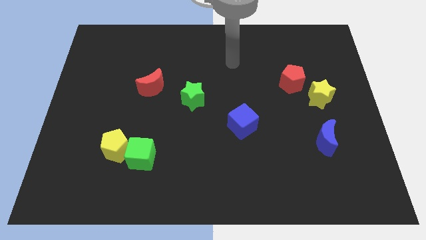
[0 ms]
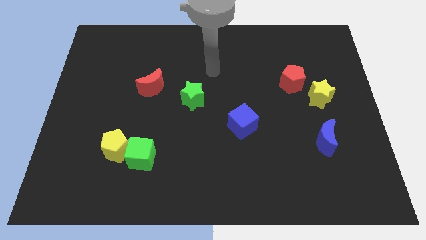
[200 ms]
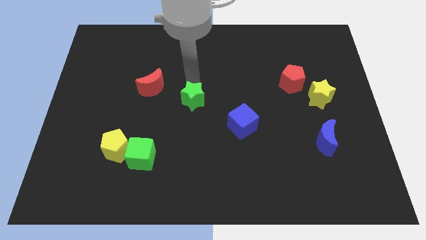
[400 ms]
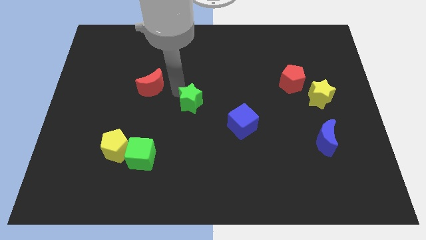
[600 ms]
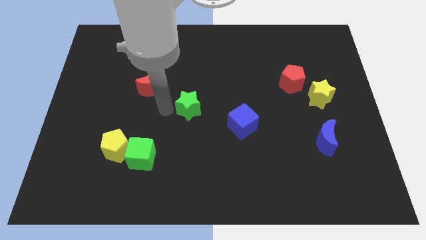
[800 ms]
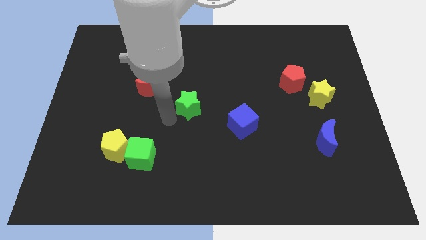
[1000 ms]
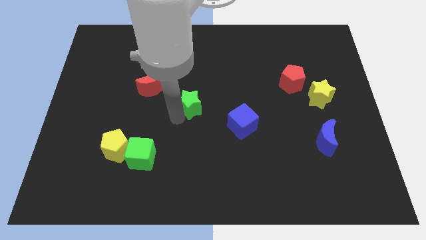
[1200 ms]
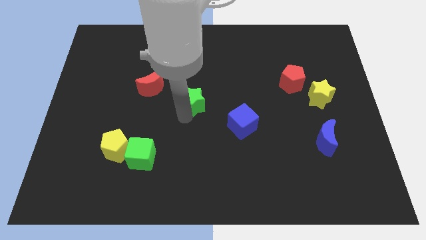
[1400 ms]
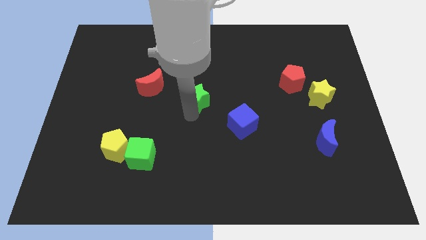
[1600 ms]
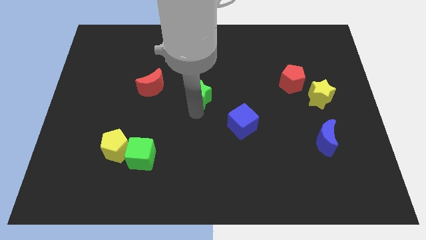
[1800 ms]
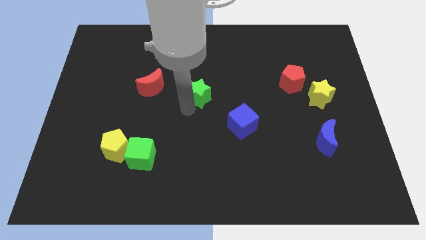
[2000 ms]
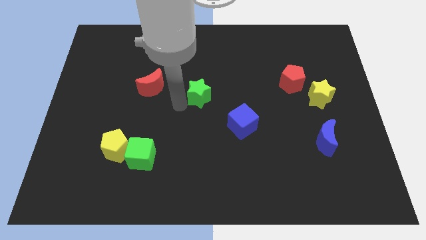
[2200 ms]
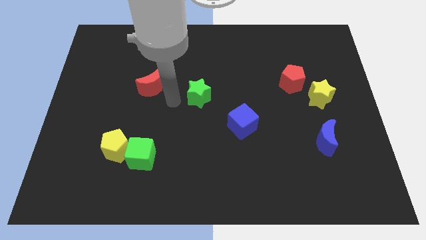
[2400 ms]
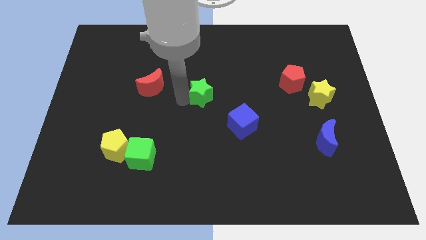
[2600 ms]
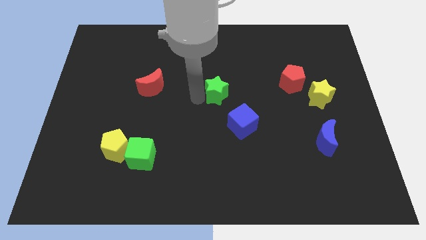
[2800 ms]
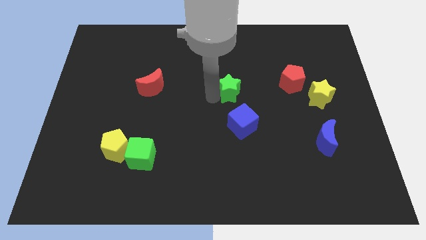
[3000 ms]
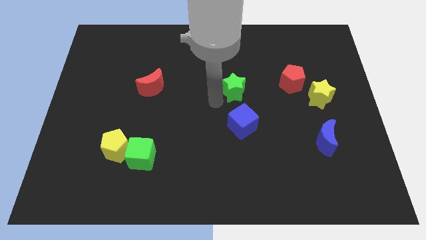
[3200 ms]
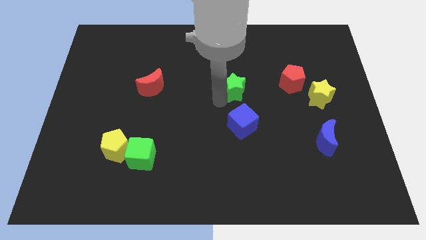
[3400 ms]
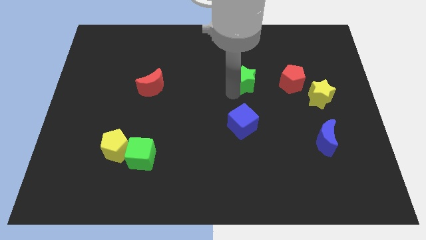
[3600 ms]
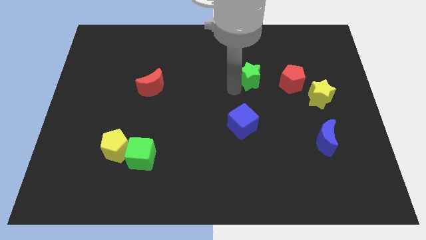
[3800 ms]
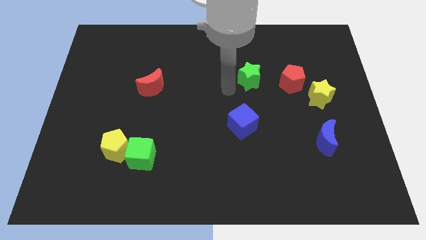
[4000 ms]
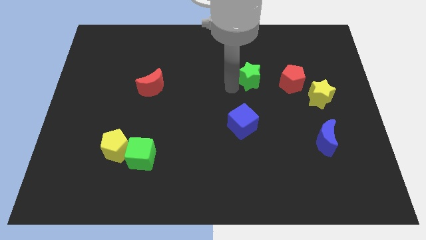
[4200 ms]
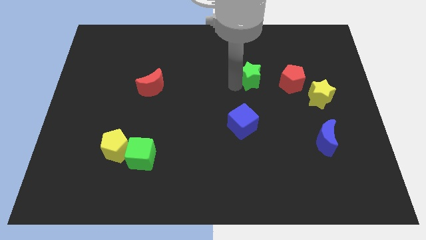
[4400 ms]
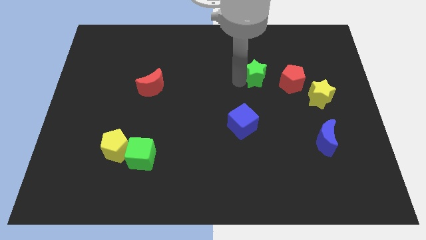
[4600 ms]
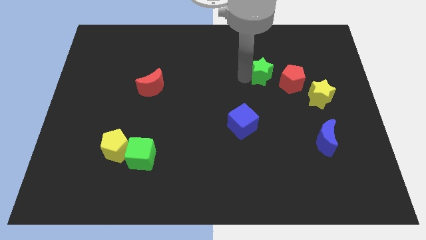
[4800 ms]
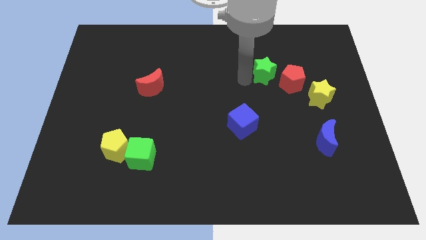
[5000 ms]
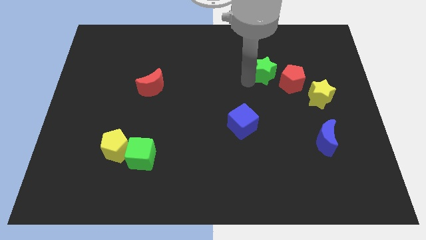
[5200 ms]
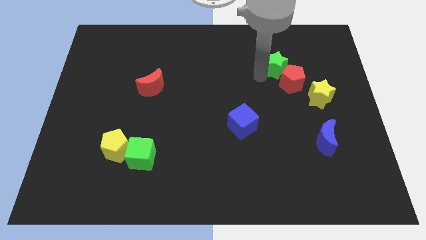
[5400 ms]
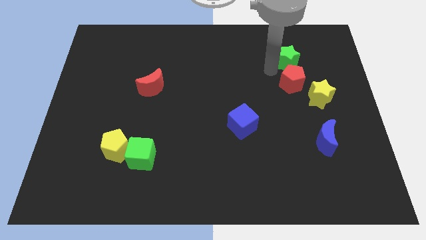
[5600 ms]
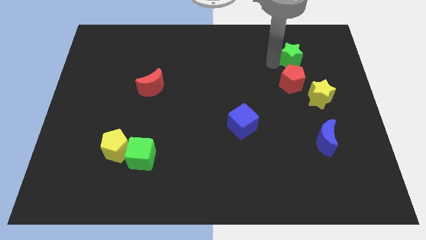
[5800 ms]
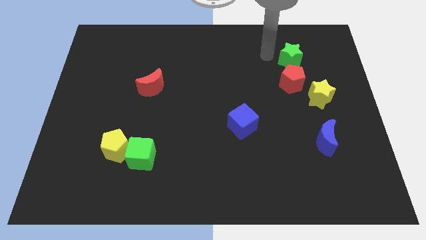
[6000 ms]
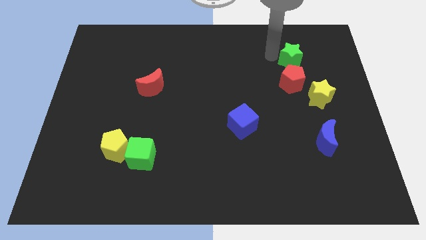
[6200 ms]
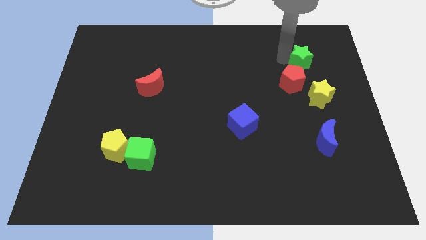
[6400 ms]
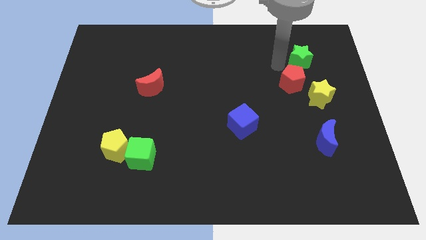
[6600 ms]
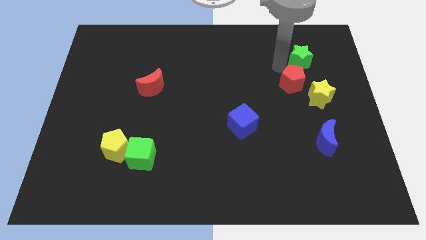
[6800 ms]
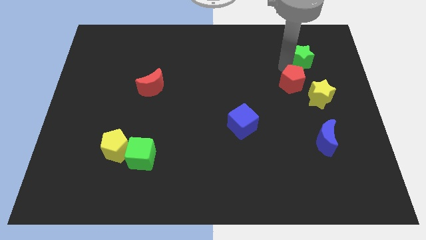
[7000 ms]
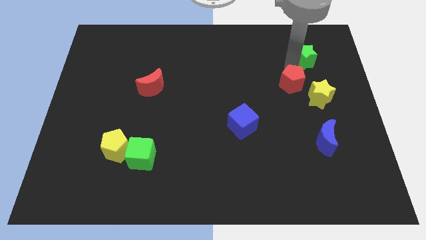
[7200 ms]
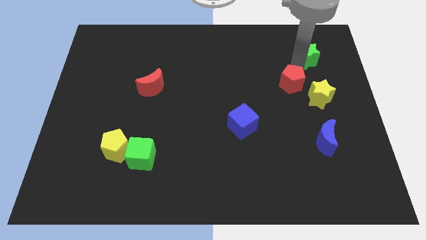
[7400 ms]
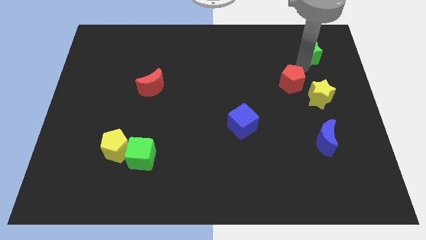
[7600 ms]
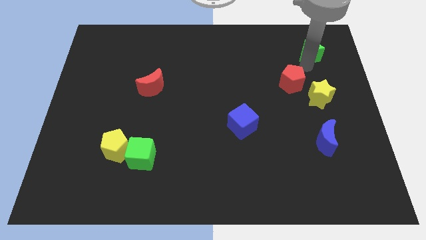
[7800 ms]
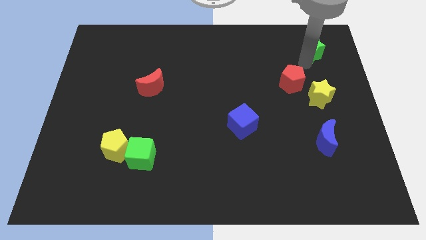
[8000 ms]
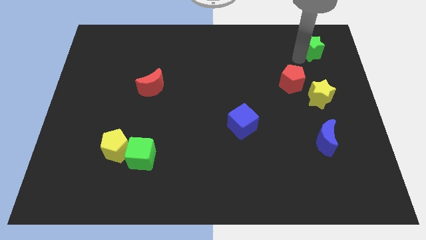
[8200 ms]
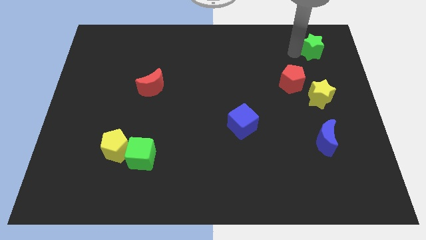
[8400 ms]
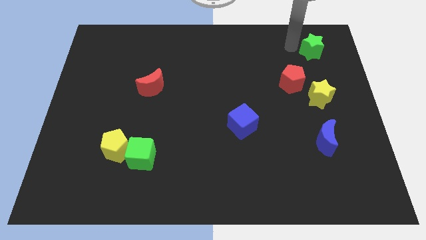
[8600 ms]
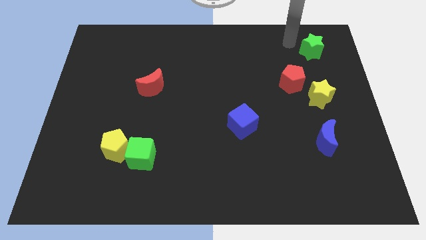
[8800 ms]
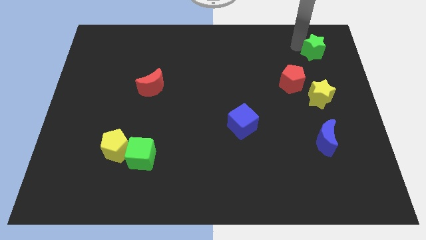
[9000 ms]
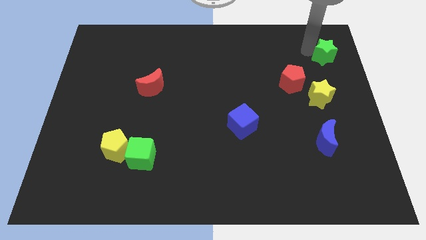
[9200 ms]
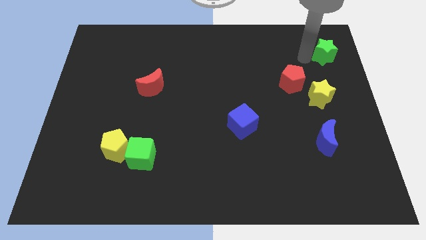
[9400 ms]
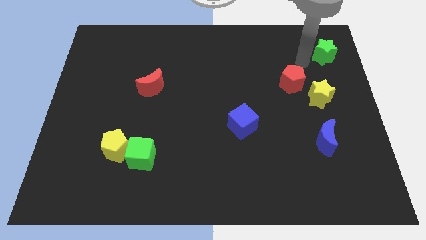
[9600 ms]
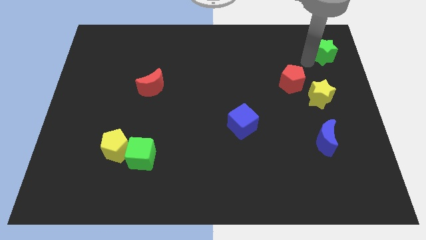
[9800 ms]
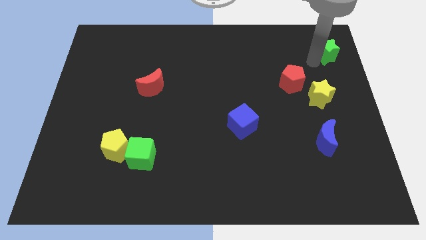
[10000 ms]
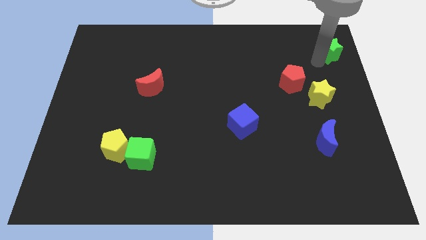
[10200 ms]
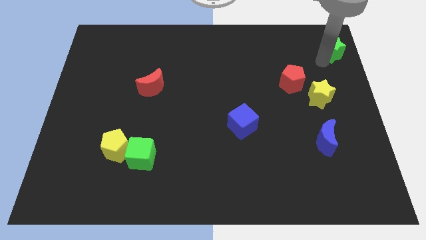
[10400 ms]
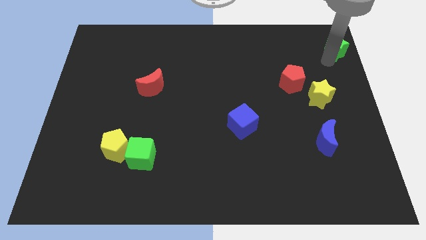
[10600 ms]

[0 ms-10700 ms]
put the green star to the top right
